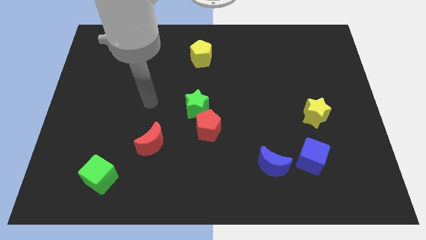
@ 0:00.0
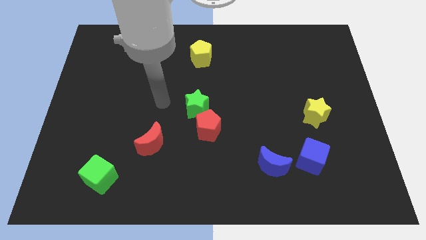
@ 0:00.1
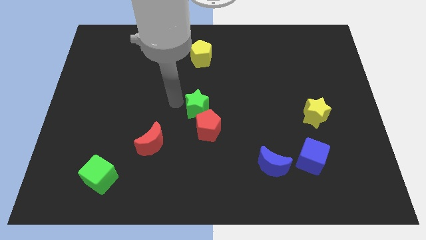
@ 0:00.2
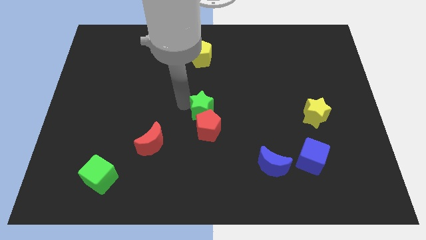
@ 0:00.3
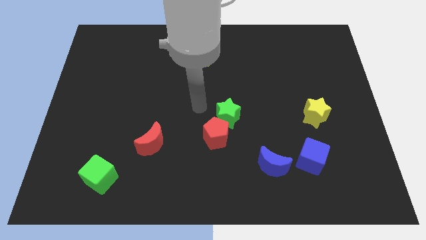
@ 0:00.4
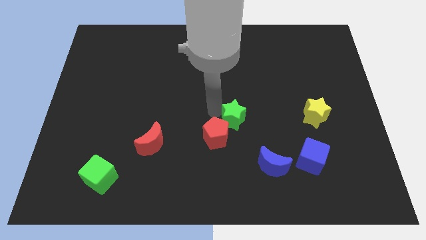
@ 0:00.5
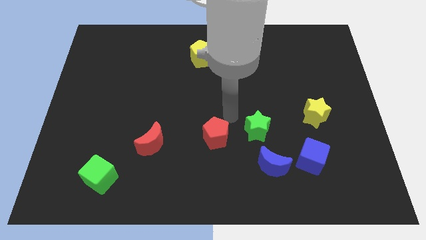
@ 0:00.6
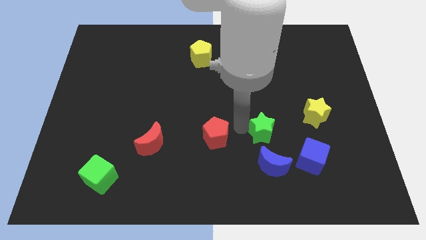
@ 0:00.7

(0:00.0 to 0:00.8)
move the red pentagon away from the green star

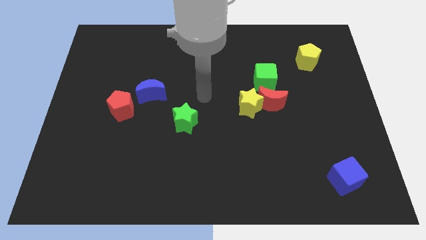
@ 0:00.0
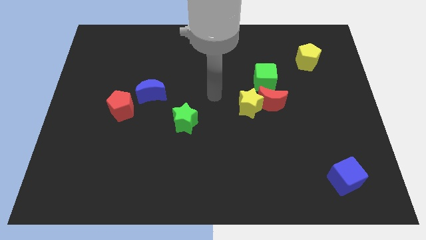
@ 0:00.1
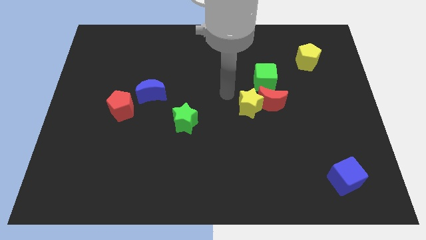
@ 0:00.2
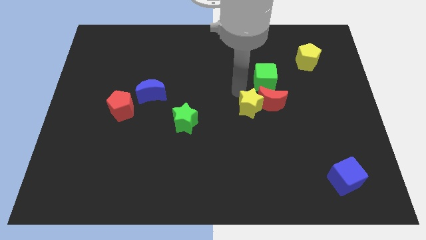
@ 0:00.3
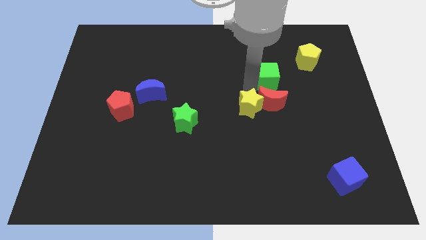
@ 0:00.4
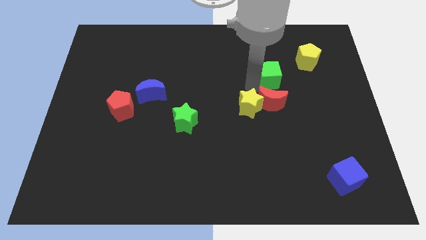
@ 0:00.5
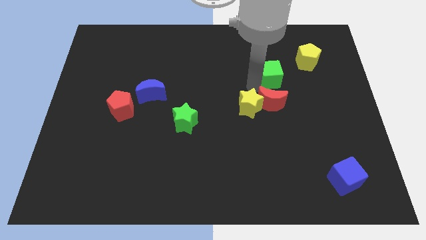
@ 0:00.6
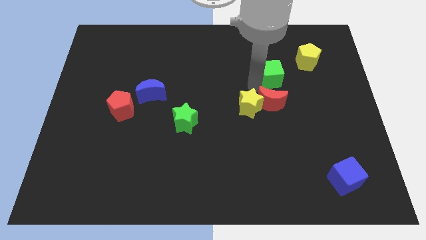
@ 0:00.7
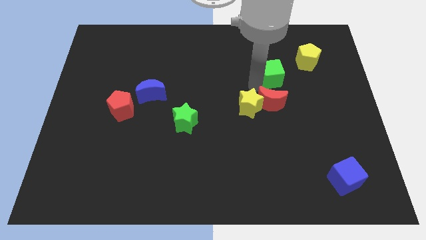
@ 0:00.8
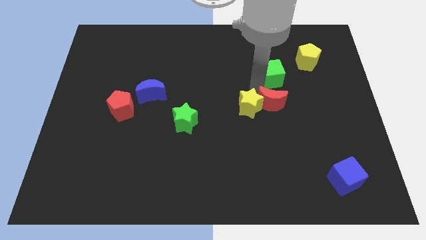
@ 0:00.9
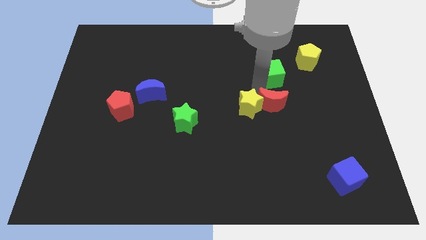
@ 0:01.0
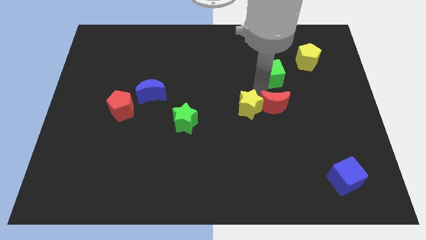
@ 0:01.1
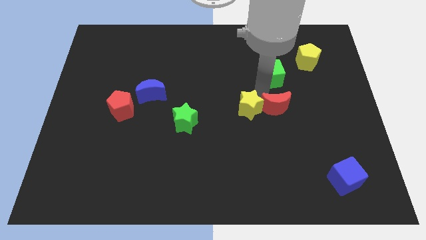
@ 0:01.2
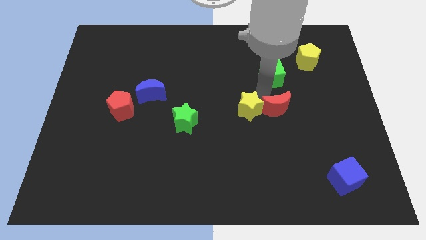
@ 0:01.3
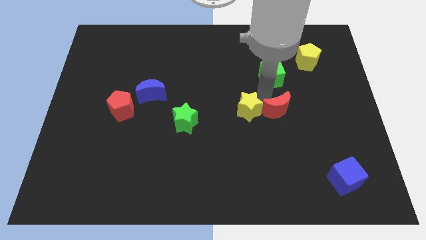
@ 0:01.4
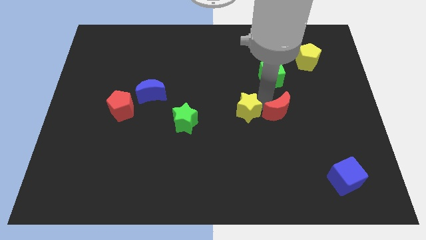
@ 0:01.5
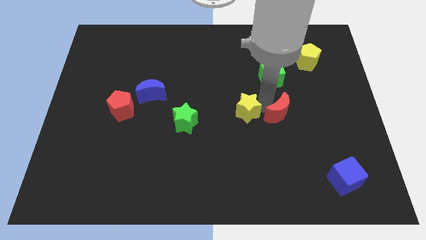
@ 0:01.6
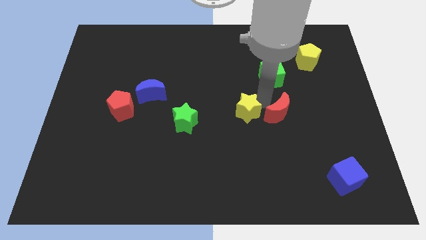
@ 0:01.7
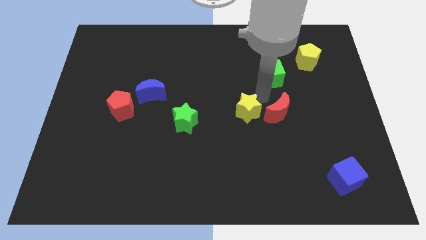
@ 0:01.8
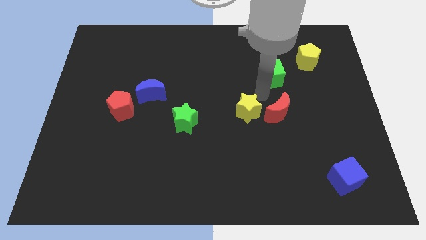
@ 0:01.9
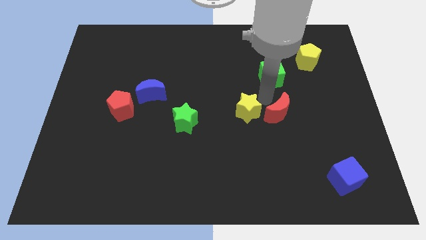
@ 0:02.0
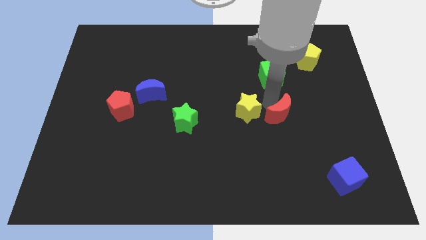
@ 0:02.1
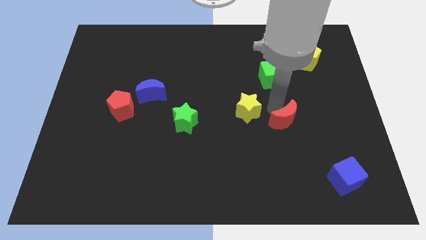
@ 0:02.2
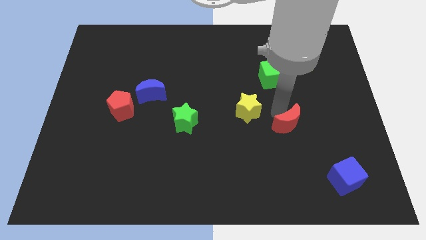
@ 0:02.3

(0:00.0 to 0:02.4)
pull the red moon apart from the yellow star and green cube

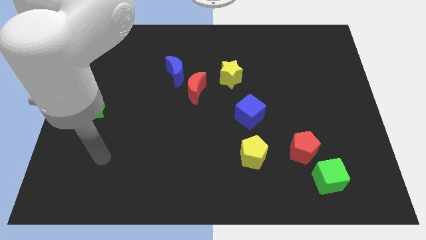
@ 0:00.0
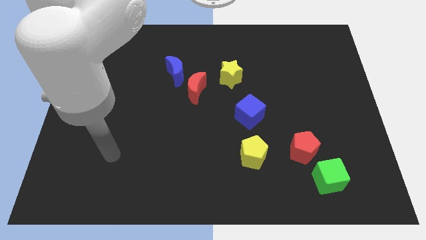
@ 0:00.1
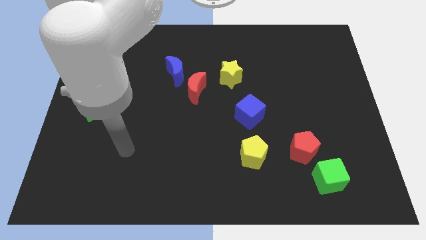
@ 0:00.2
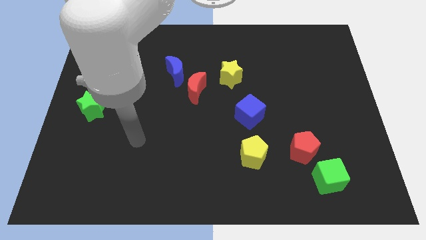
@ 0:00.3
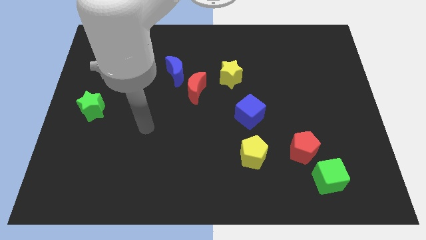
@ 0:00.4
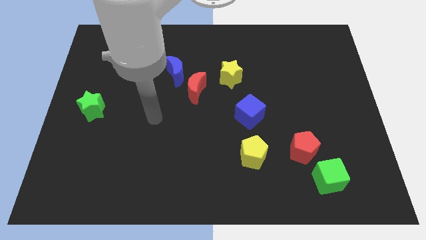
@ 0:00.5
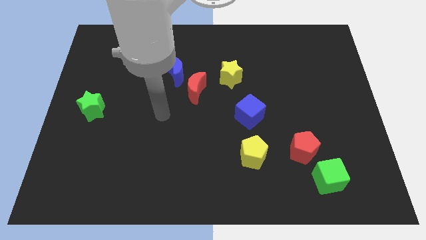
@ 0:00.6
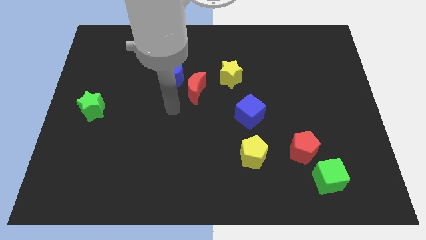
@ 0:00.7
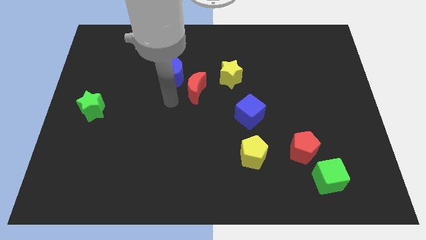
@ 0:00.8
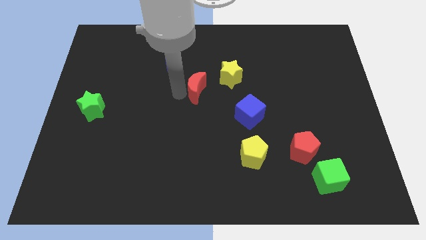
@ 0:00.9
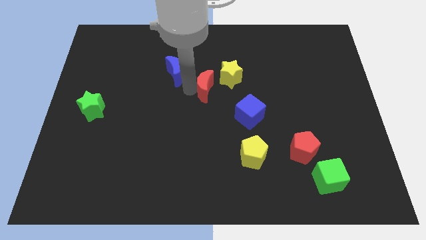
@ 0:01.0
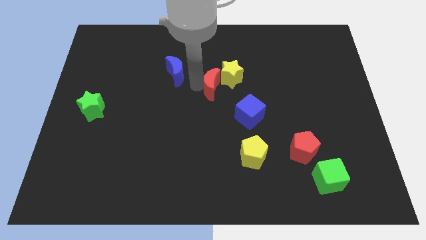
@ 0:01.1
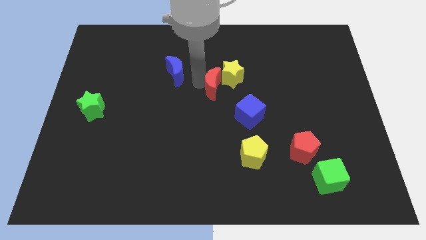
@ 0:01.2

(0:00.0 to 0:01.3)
move the blue moon away from the red moon

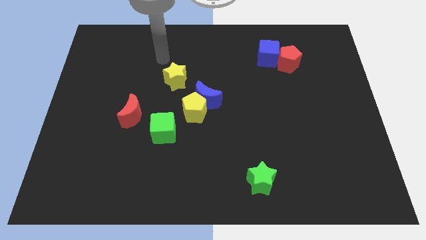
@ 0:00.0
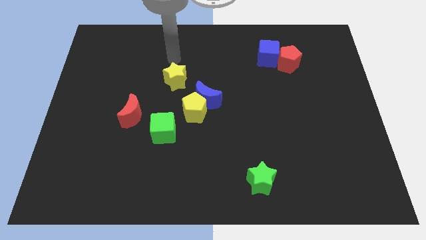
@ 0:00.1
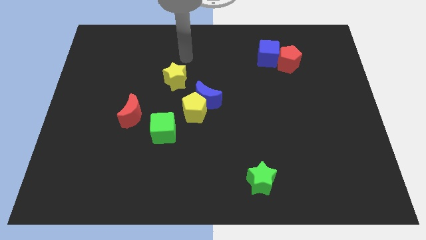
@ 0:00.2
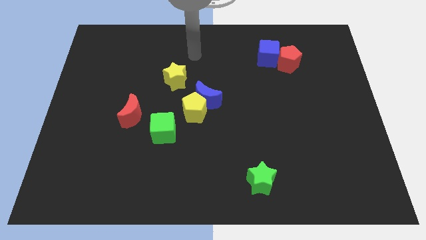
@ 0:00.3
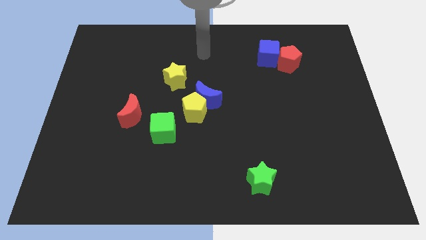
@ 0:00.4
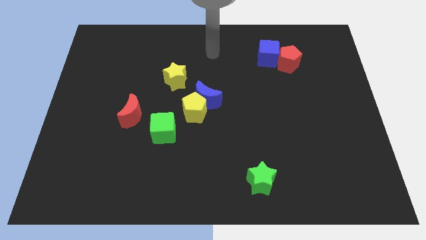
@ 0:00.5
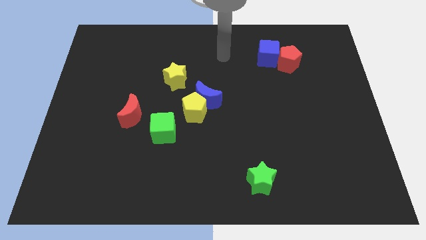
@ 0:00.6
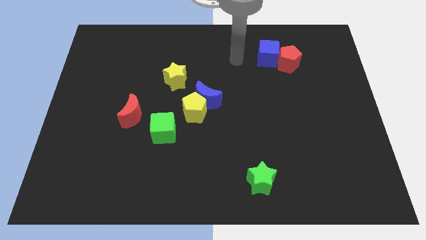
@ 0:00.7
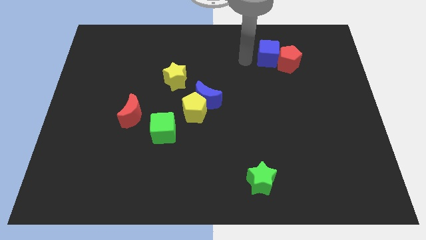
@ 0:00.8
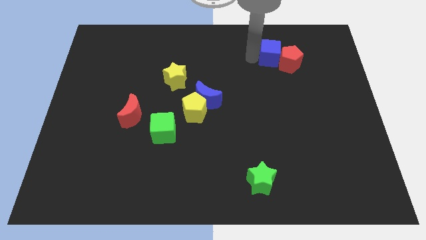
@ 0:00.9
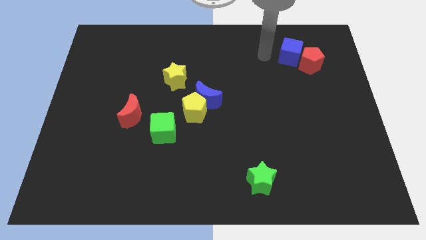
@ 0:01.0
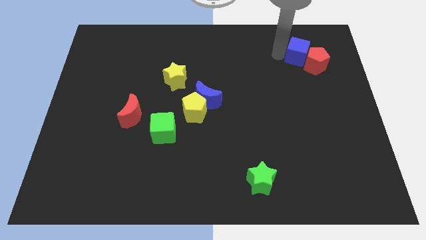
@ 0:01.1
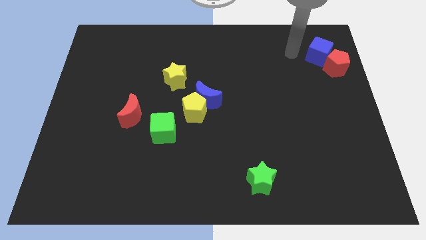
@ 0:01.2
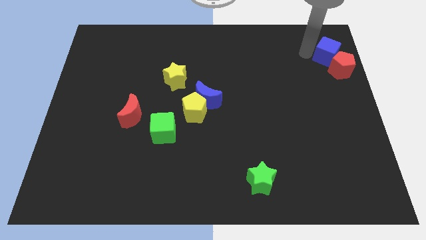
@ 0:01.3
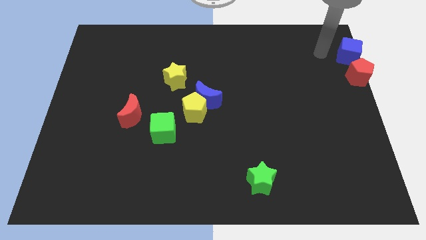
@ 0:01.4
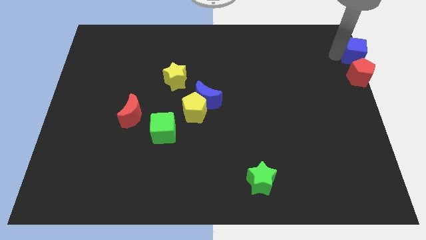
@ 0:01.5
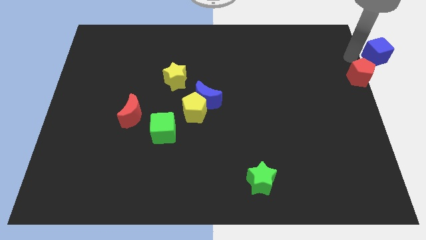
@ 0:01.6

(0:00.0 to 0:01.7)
pull the red pentagon apart from the blue cube

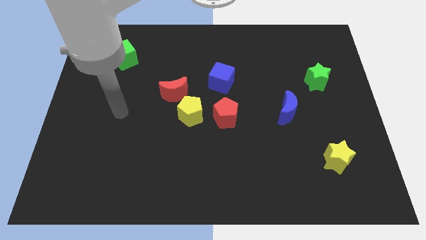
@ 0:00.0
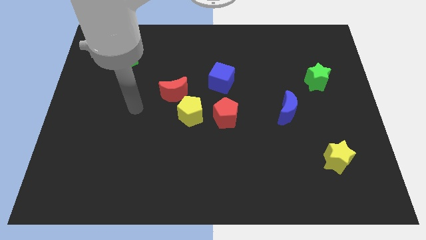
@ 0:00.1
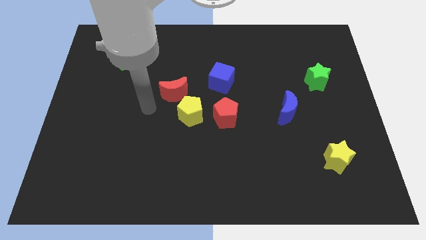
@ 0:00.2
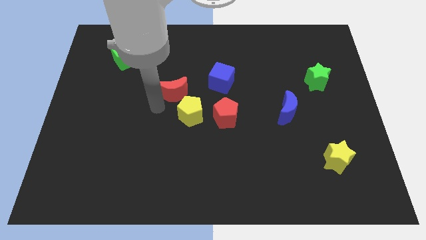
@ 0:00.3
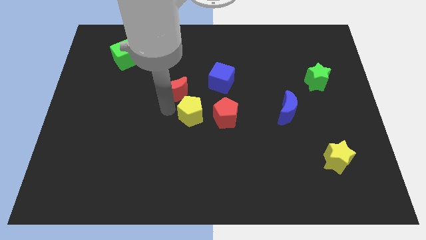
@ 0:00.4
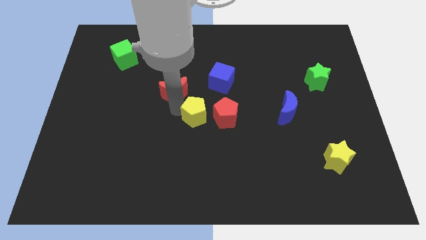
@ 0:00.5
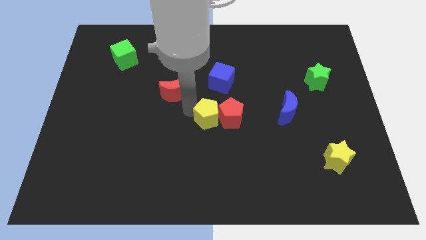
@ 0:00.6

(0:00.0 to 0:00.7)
move the red moon away from the yellow pentagon

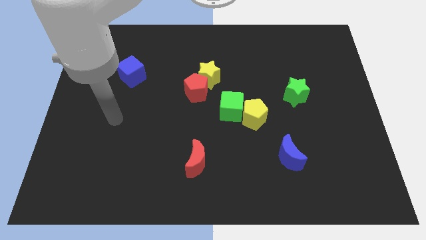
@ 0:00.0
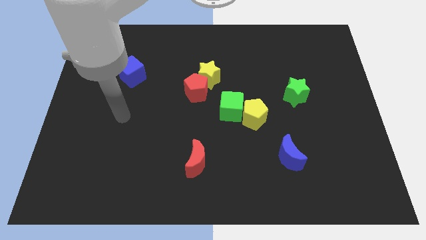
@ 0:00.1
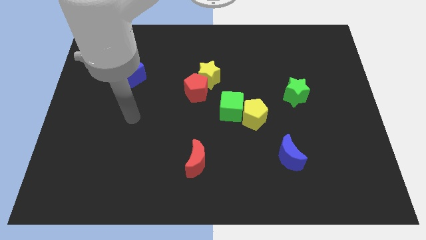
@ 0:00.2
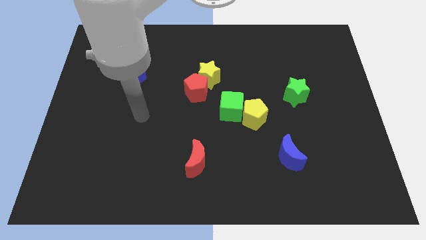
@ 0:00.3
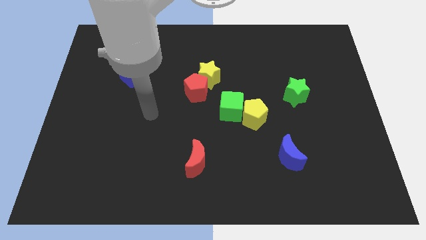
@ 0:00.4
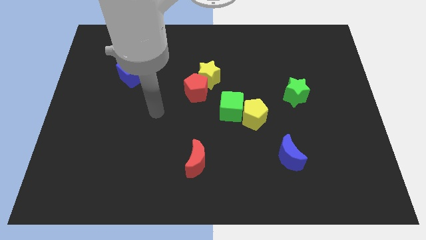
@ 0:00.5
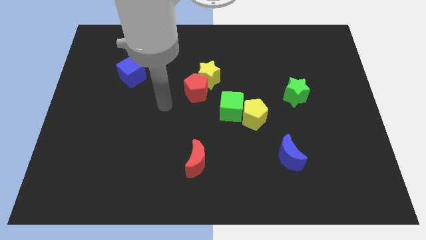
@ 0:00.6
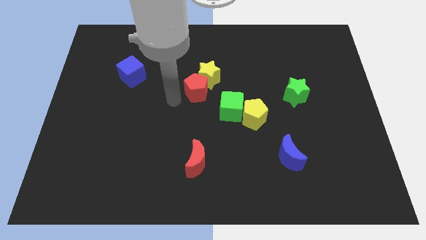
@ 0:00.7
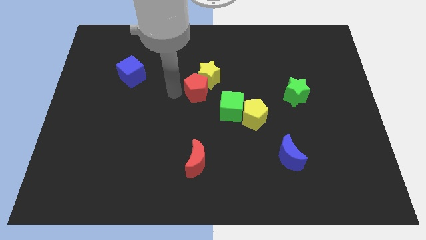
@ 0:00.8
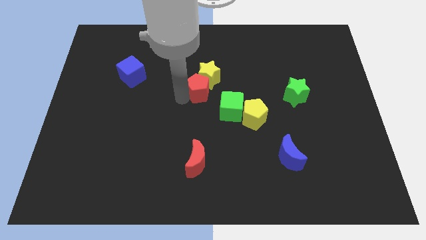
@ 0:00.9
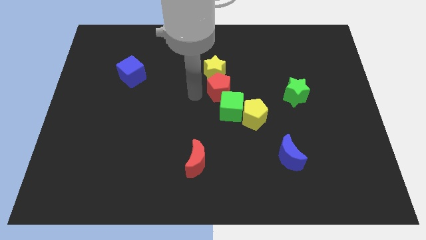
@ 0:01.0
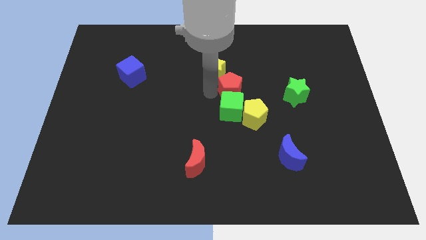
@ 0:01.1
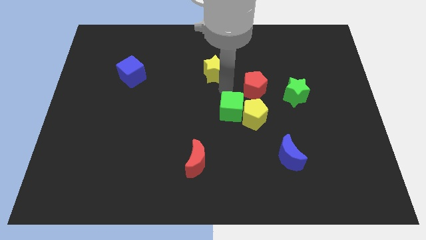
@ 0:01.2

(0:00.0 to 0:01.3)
move the yellow star away from the red pentagon

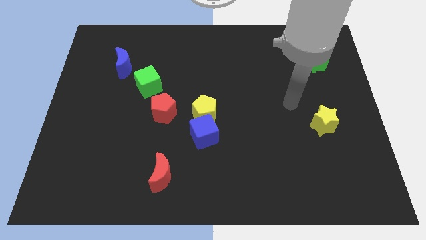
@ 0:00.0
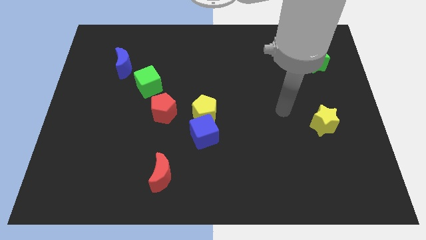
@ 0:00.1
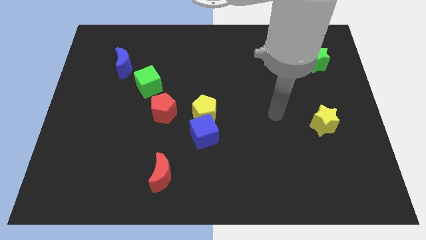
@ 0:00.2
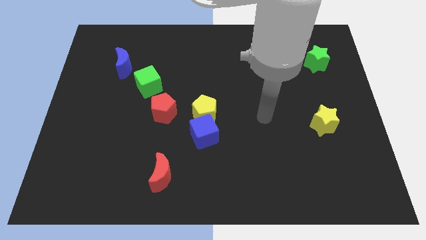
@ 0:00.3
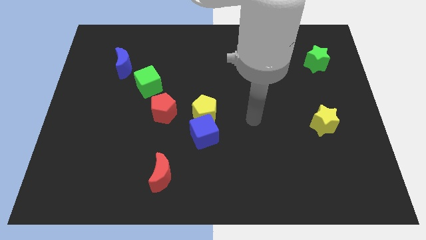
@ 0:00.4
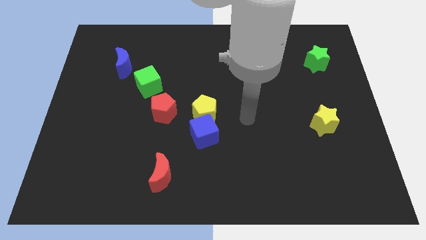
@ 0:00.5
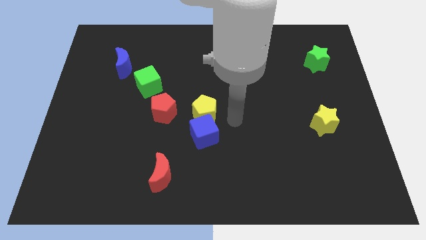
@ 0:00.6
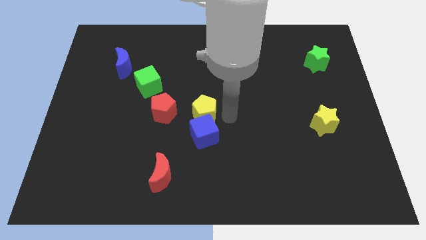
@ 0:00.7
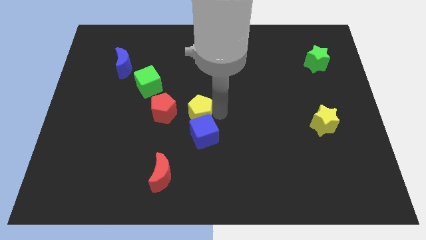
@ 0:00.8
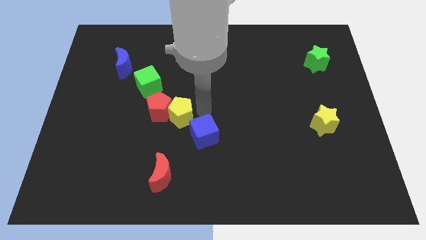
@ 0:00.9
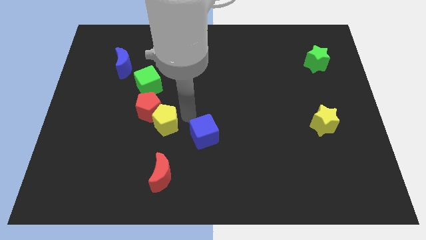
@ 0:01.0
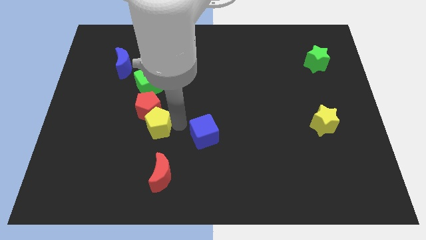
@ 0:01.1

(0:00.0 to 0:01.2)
move the blue cube away from the yellow pentagon
